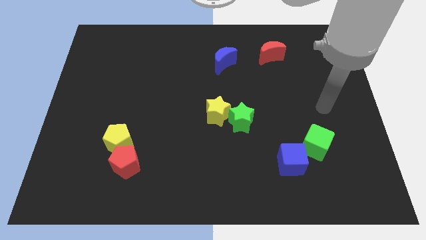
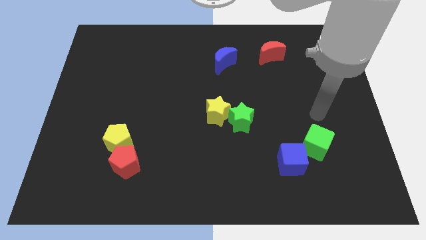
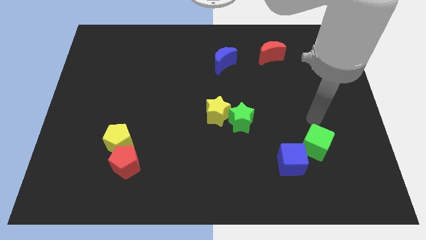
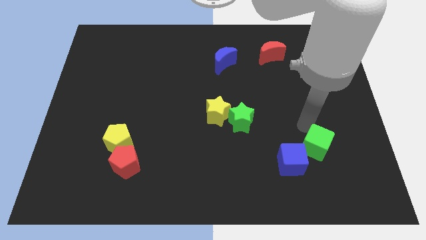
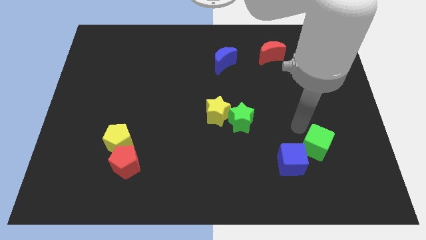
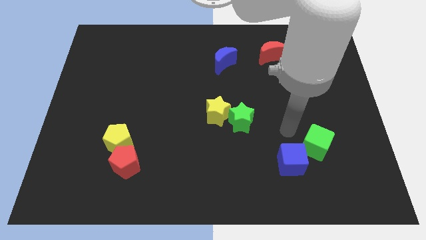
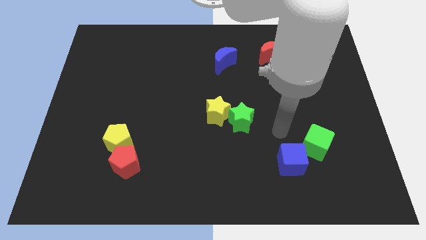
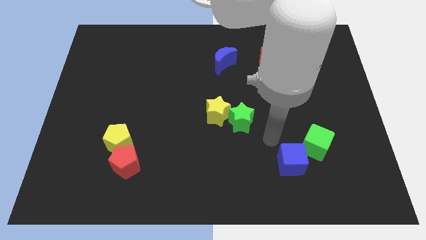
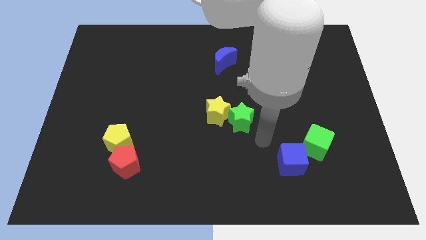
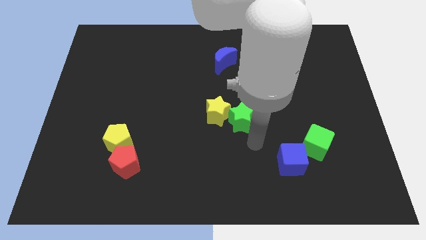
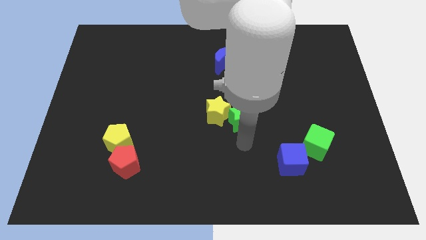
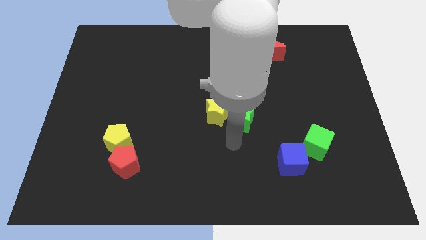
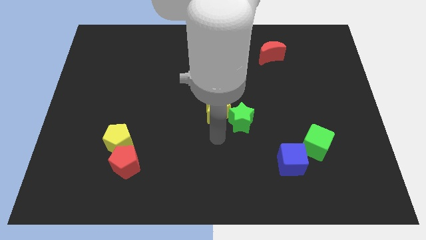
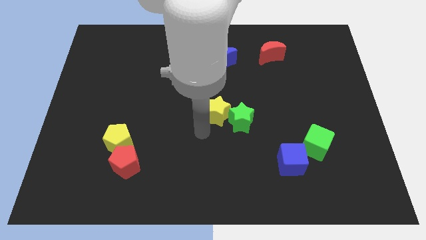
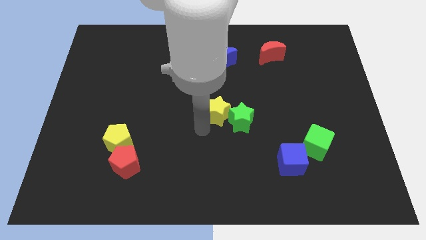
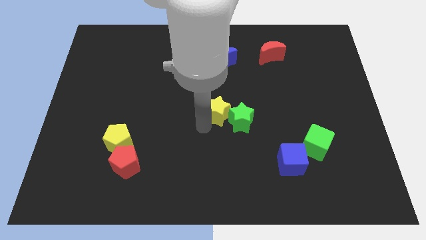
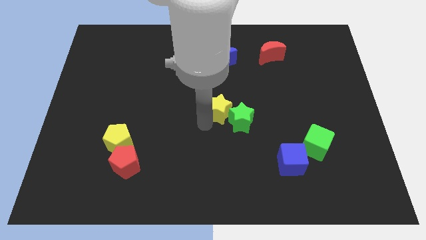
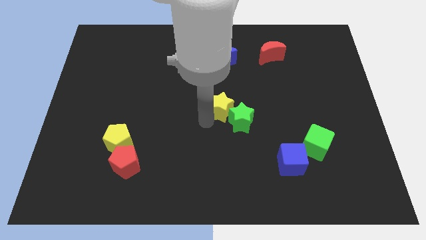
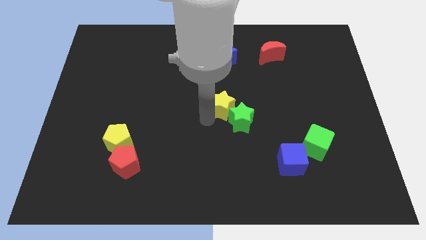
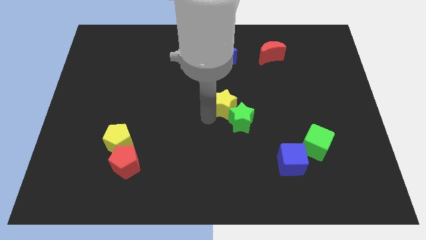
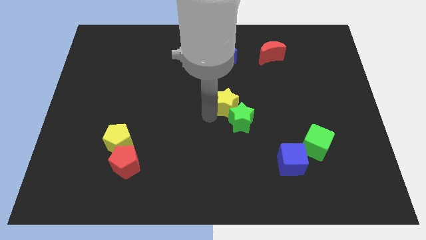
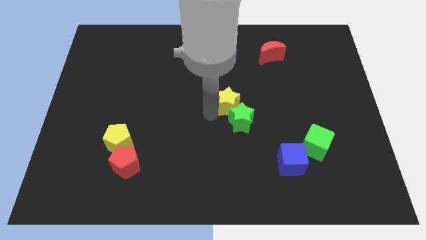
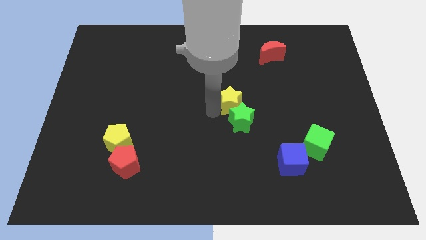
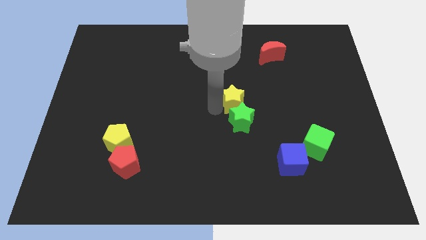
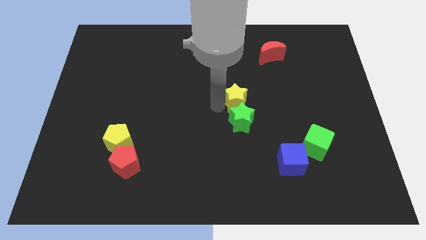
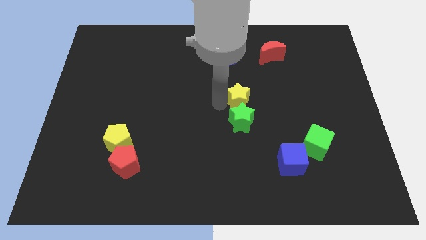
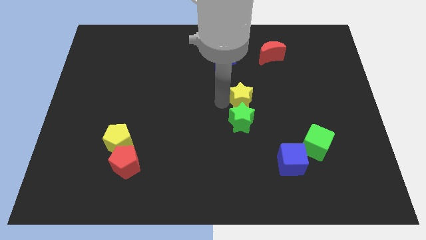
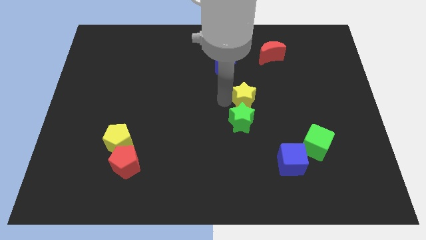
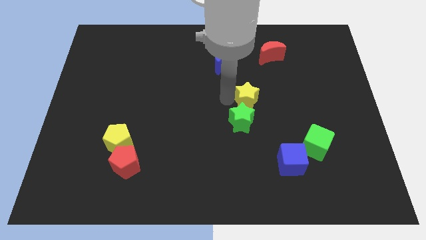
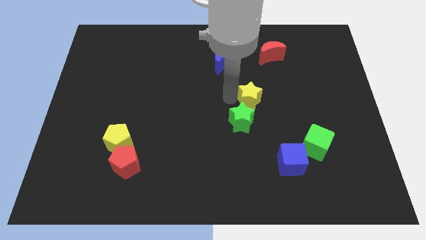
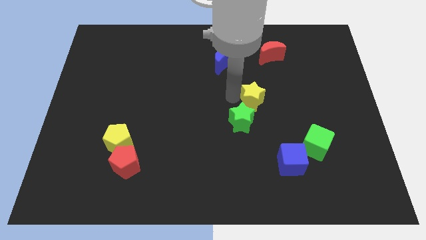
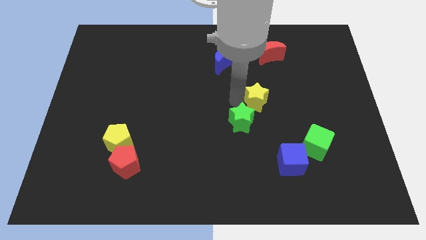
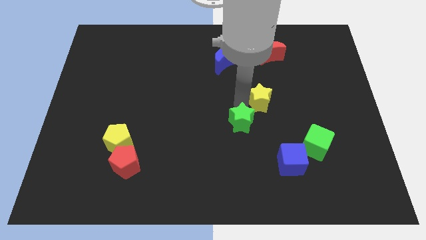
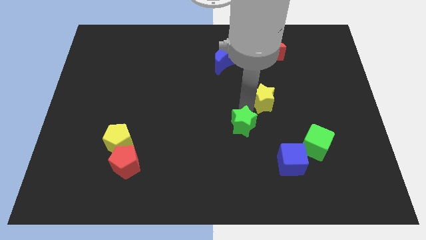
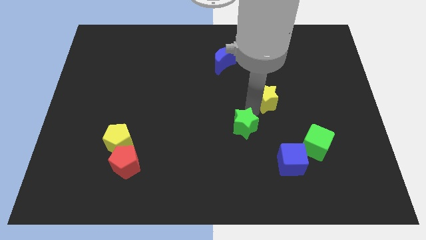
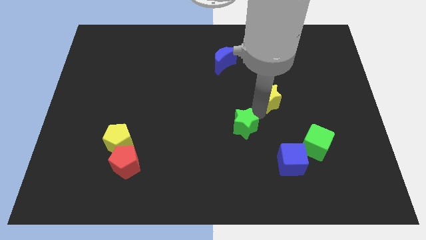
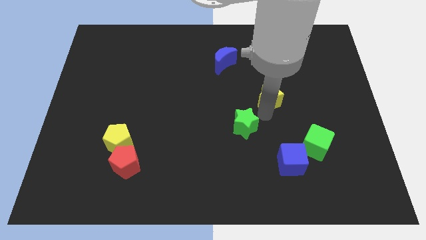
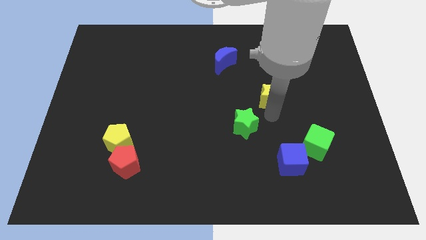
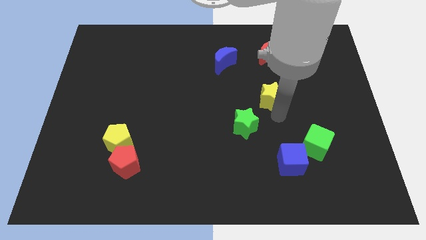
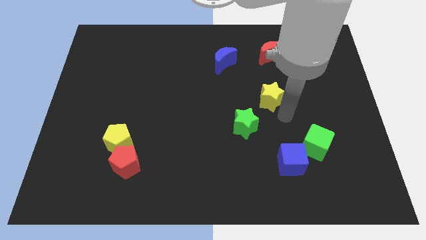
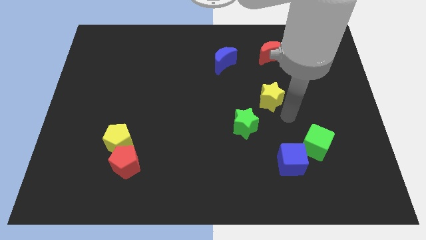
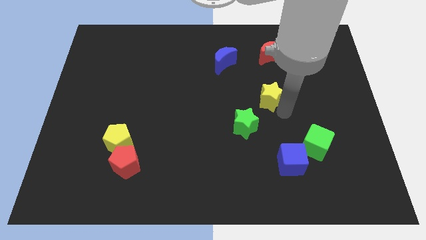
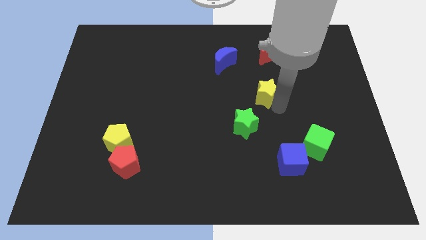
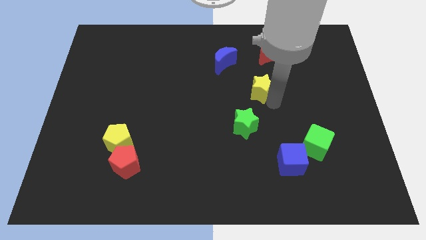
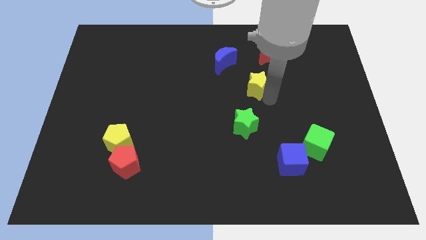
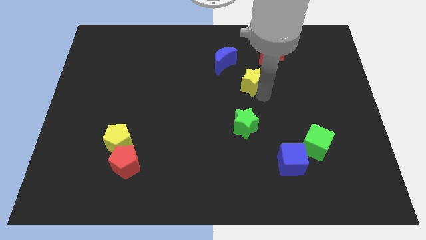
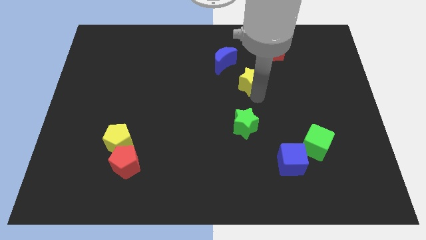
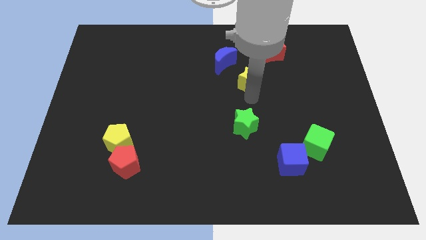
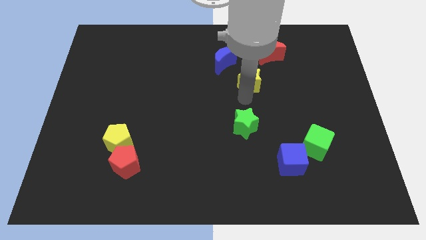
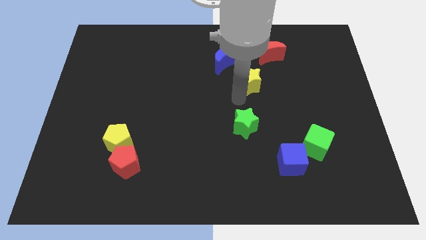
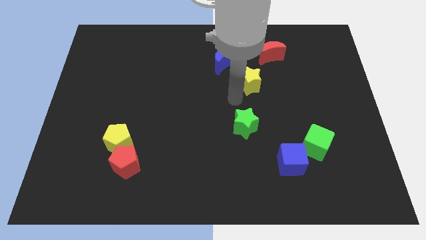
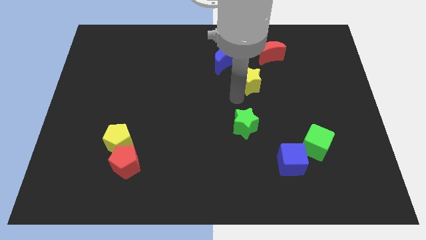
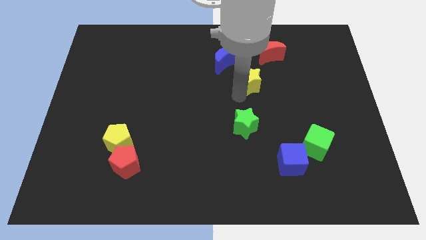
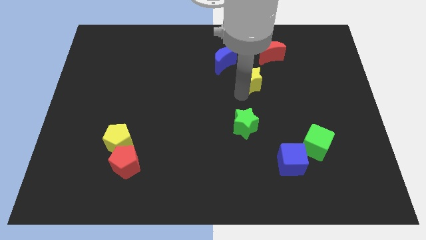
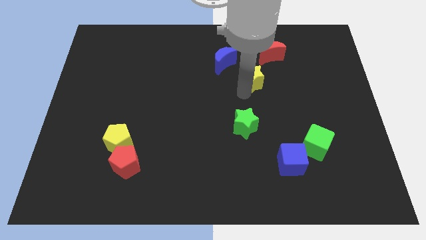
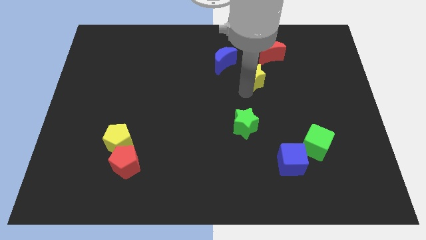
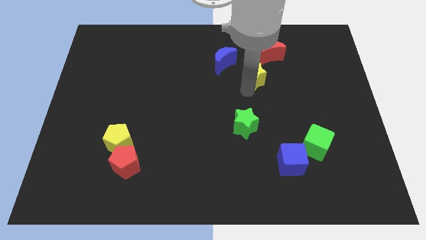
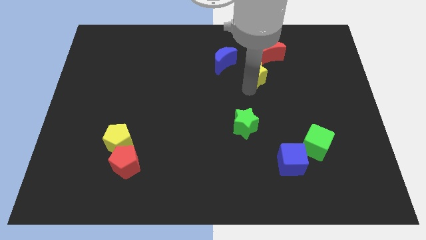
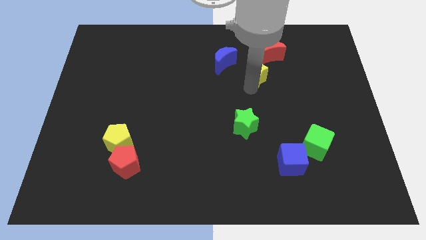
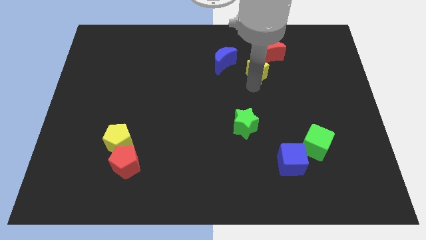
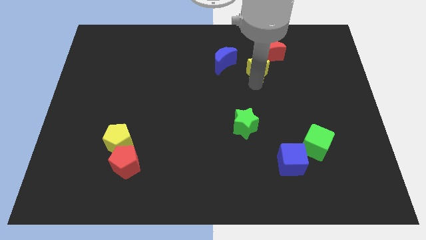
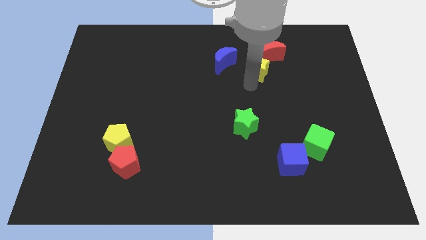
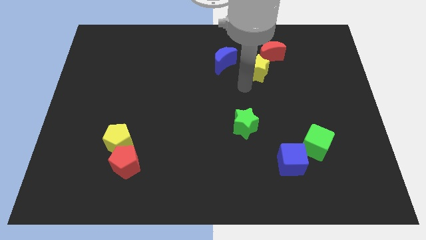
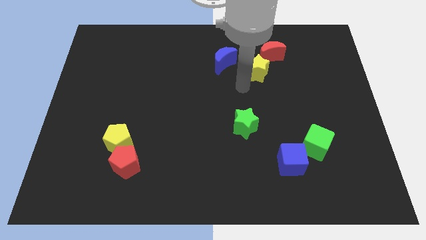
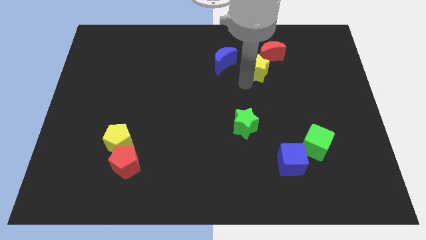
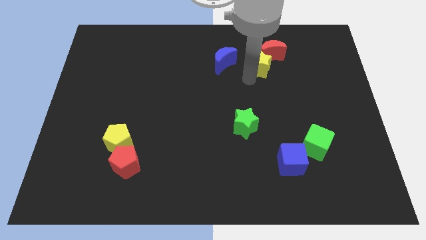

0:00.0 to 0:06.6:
move the yellow star close to the red moon
